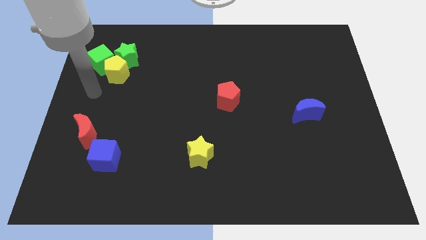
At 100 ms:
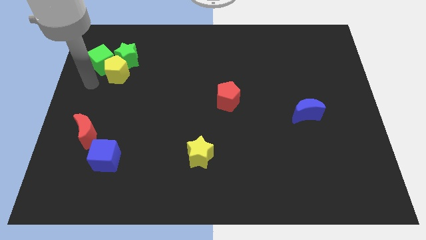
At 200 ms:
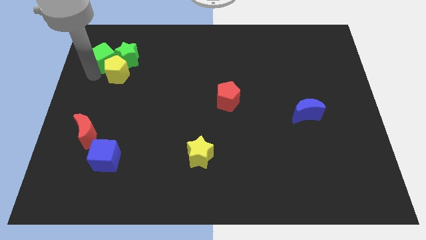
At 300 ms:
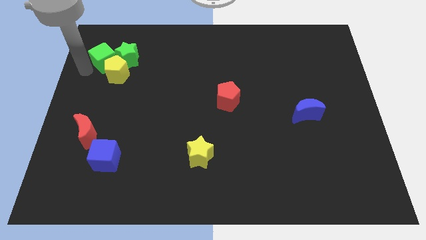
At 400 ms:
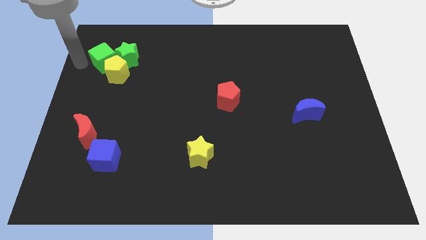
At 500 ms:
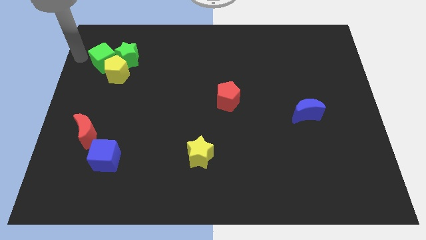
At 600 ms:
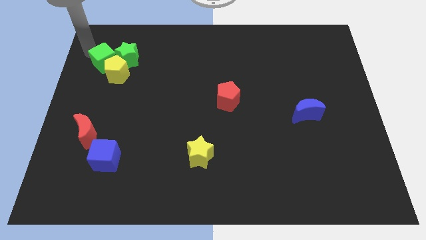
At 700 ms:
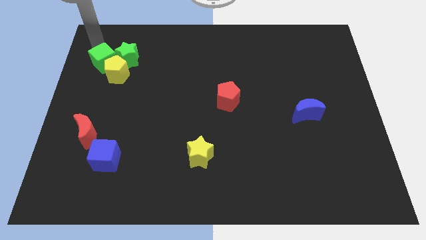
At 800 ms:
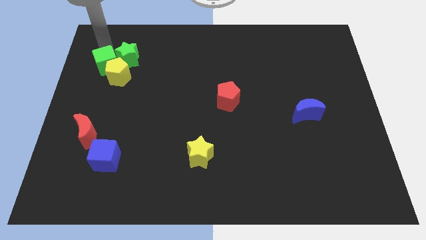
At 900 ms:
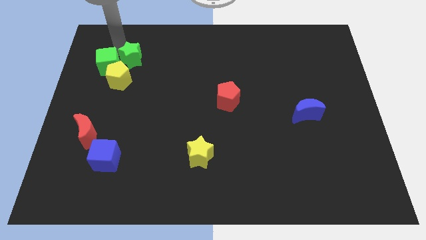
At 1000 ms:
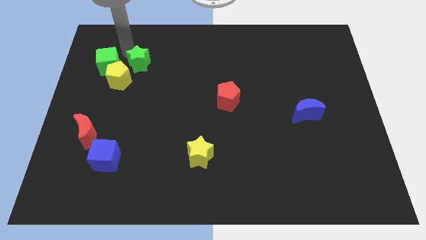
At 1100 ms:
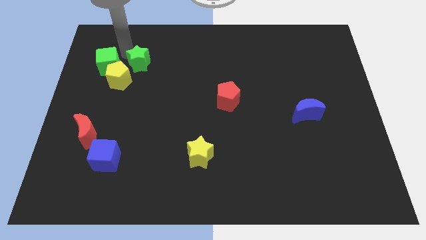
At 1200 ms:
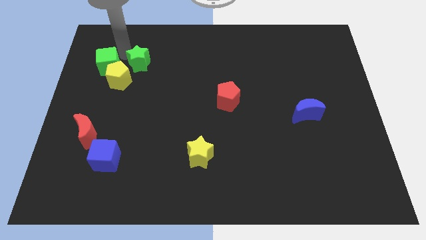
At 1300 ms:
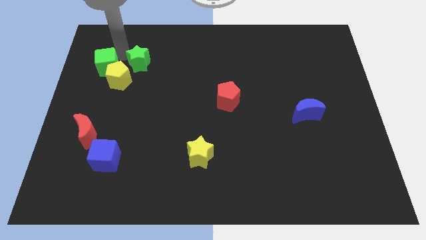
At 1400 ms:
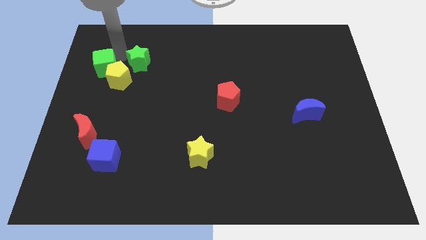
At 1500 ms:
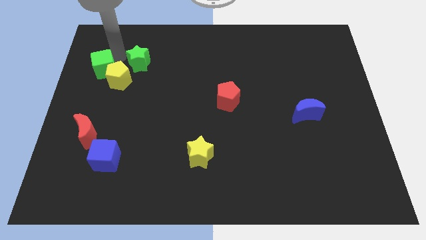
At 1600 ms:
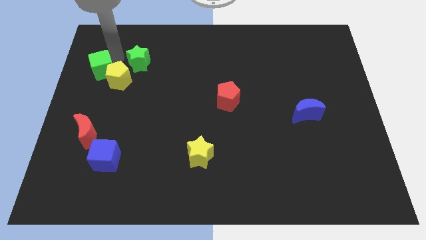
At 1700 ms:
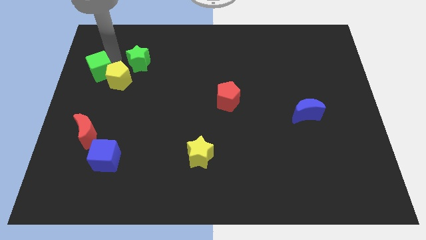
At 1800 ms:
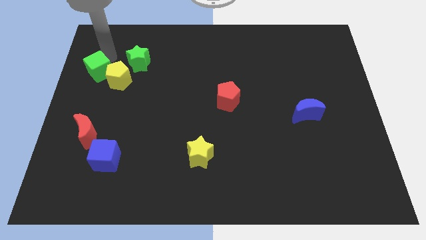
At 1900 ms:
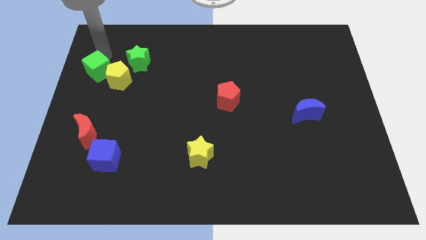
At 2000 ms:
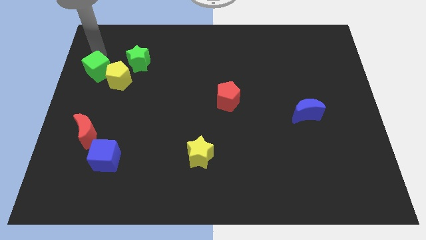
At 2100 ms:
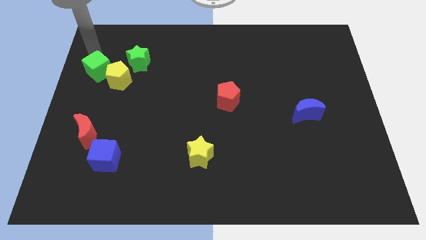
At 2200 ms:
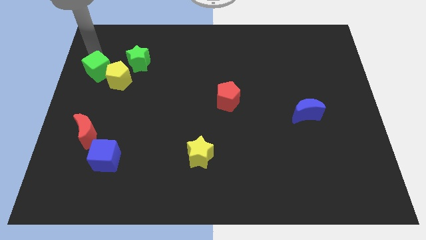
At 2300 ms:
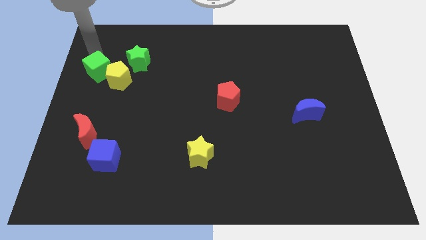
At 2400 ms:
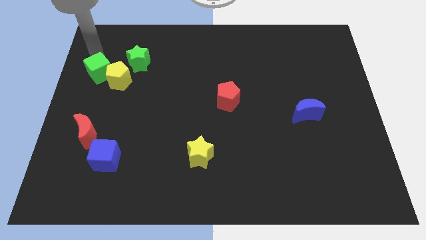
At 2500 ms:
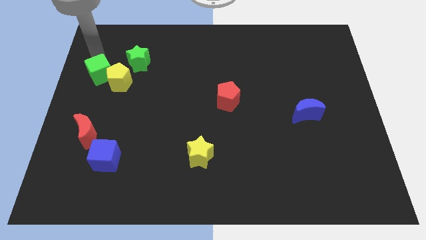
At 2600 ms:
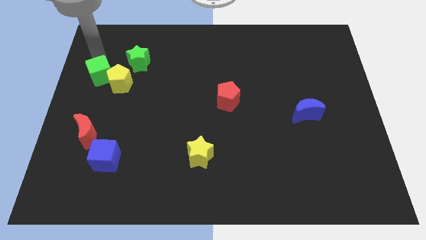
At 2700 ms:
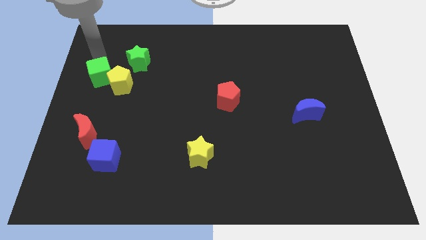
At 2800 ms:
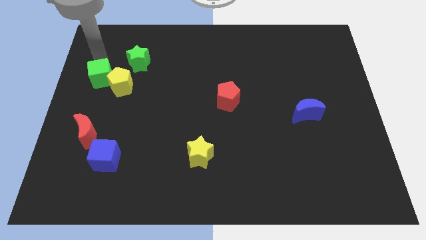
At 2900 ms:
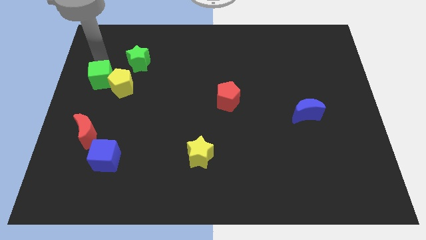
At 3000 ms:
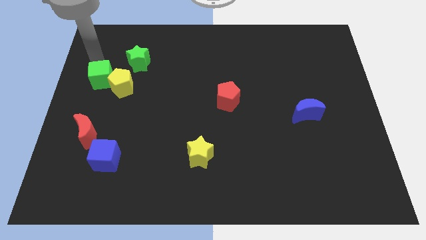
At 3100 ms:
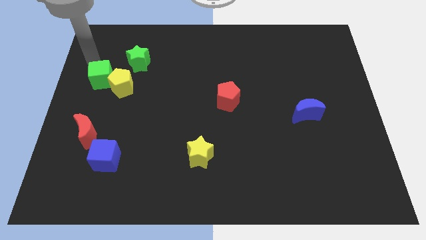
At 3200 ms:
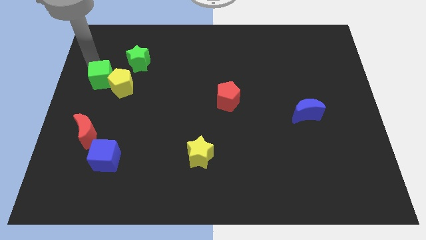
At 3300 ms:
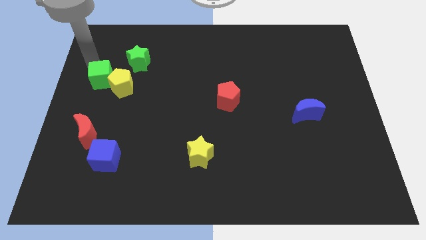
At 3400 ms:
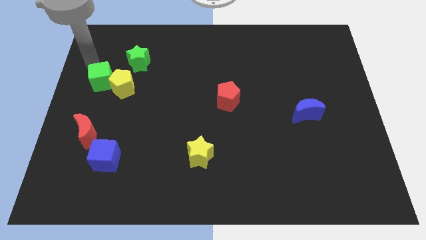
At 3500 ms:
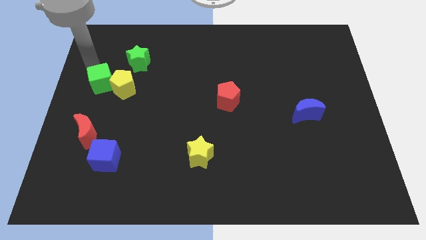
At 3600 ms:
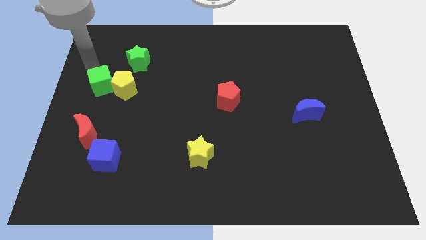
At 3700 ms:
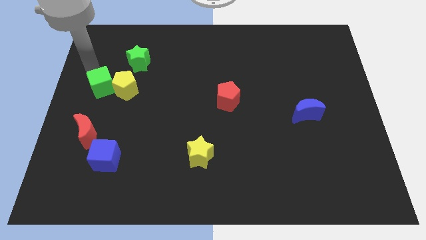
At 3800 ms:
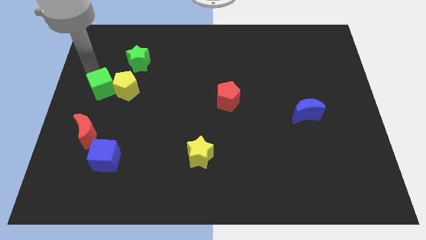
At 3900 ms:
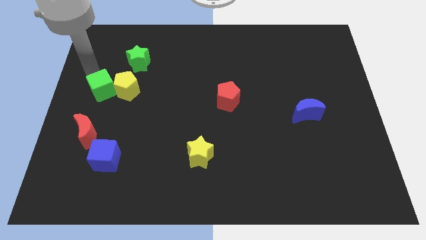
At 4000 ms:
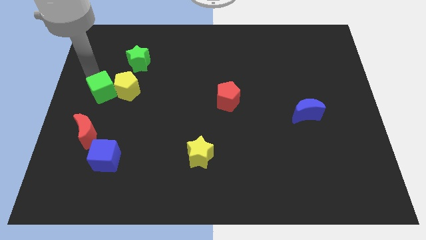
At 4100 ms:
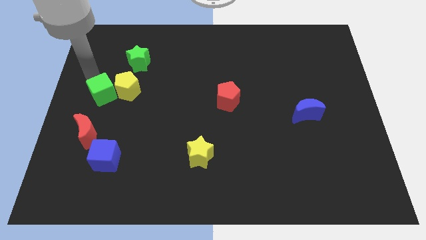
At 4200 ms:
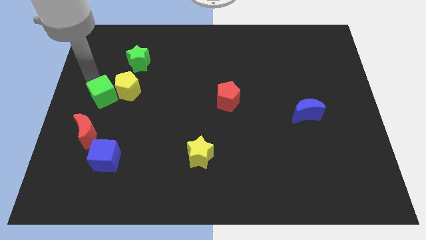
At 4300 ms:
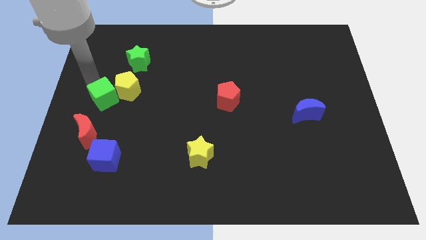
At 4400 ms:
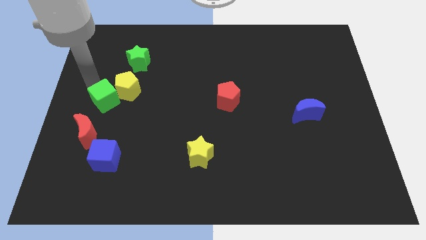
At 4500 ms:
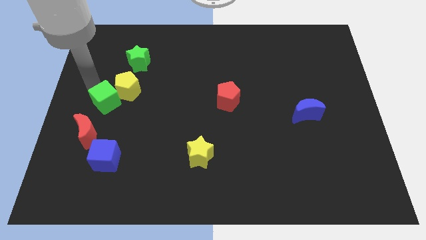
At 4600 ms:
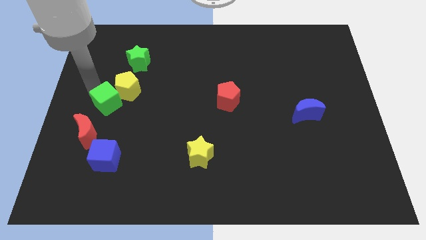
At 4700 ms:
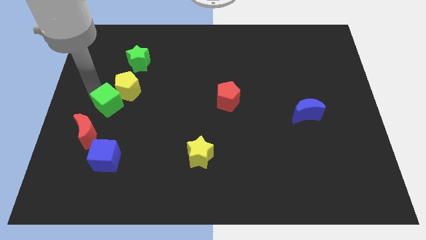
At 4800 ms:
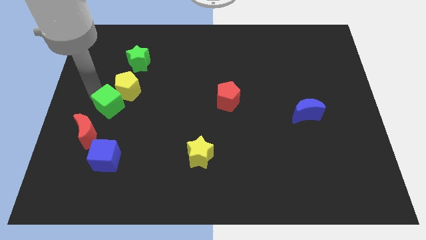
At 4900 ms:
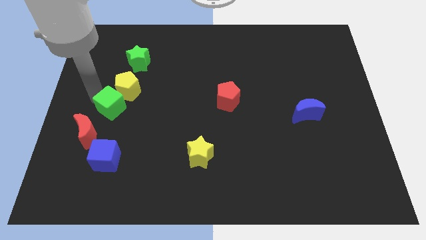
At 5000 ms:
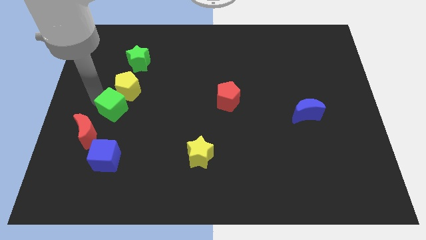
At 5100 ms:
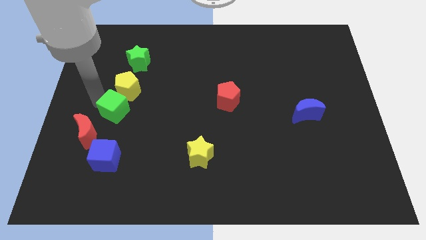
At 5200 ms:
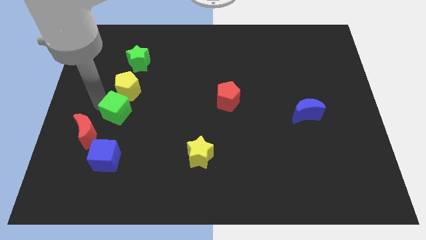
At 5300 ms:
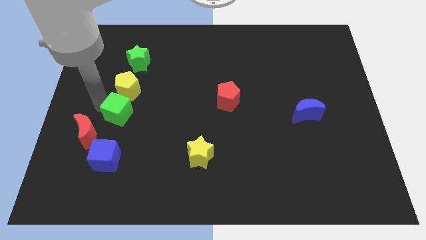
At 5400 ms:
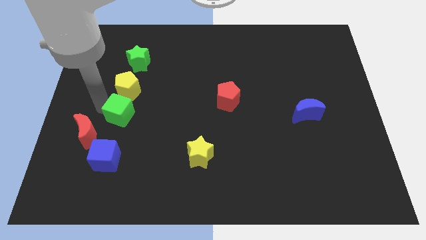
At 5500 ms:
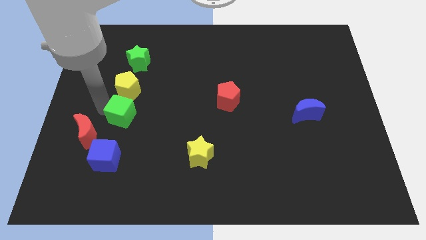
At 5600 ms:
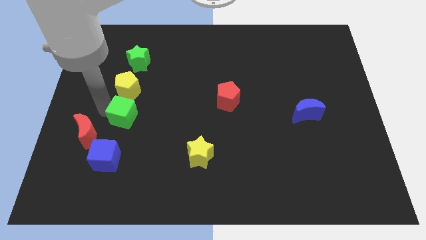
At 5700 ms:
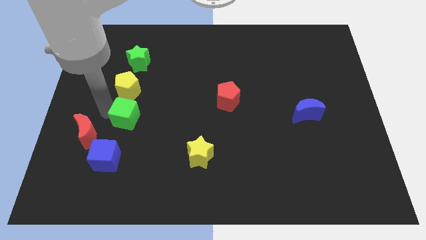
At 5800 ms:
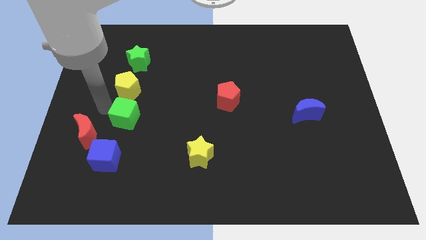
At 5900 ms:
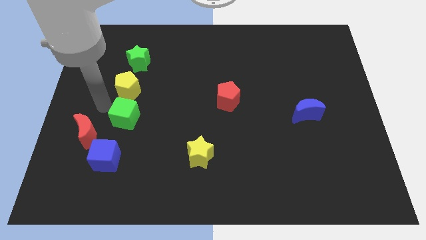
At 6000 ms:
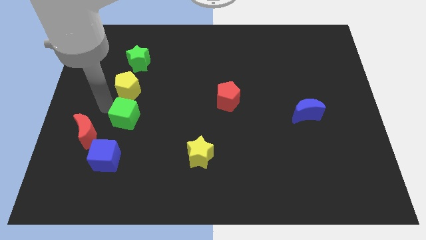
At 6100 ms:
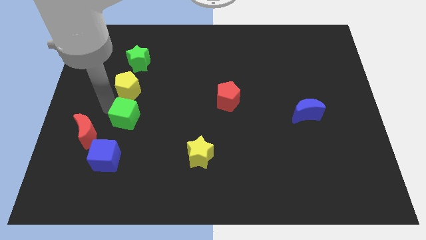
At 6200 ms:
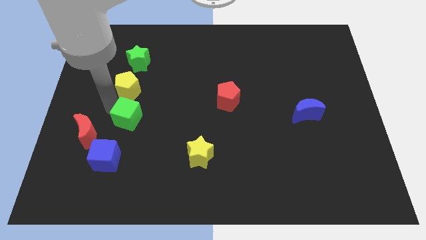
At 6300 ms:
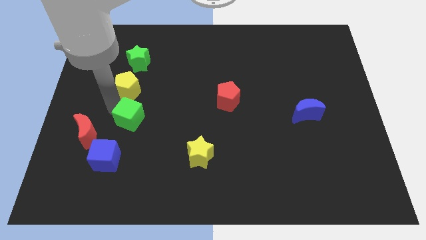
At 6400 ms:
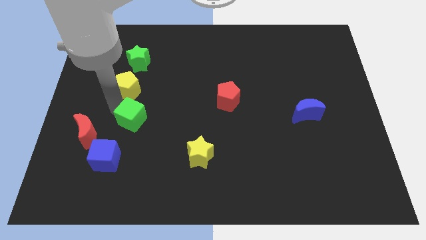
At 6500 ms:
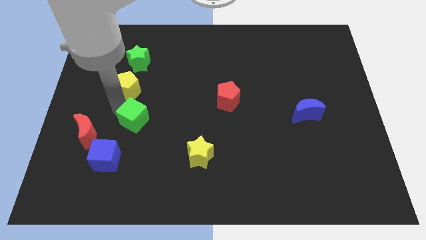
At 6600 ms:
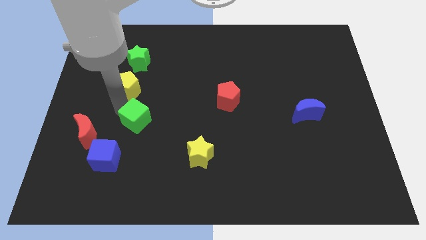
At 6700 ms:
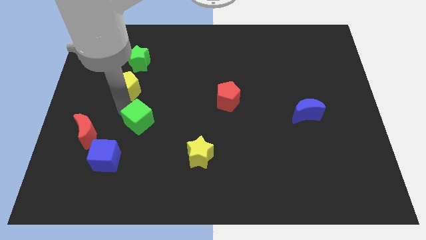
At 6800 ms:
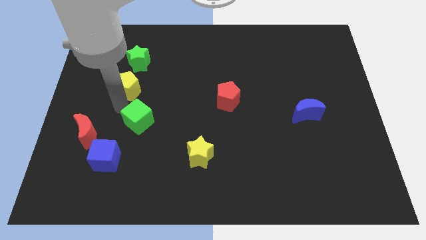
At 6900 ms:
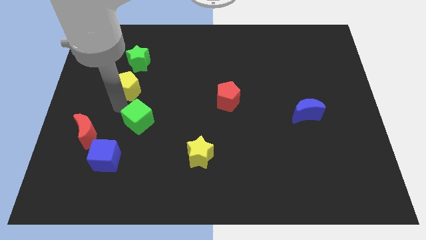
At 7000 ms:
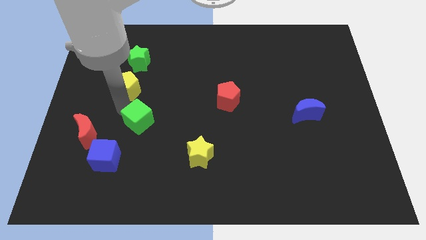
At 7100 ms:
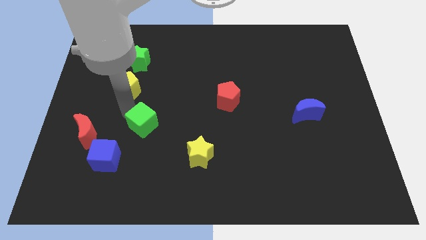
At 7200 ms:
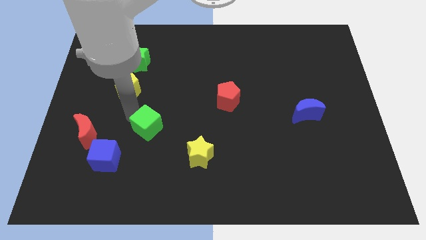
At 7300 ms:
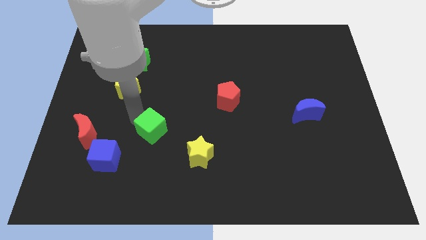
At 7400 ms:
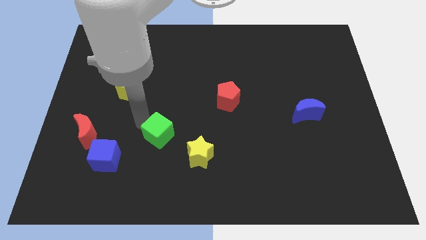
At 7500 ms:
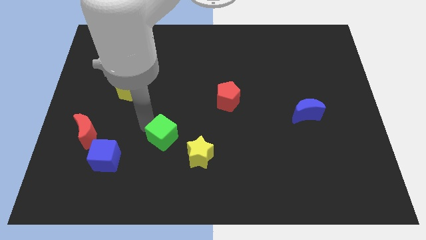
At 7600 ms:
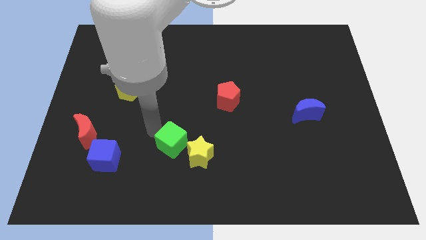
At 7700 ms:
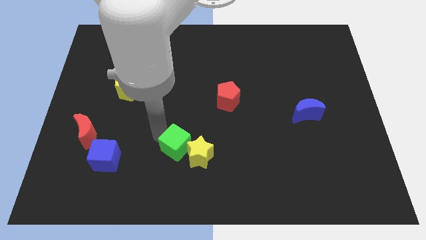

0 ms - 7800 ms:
put the green cube towards the yellow star

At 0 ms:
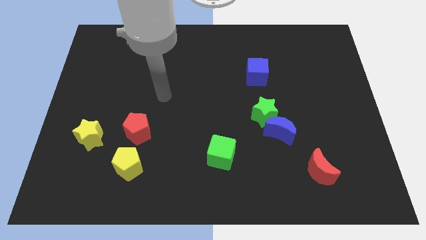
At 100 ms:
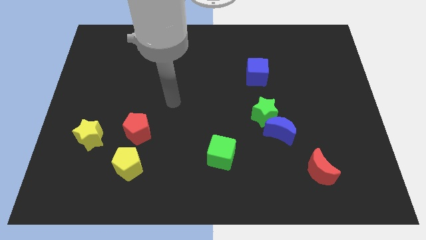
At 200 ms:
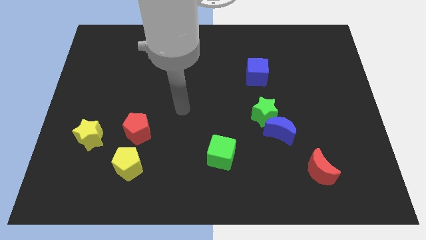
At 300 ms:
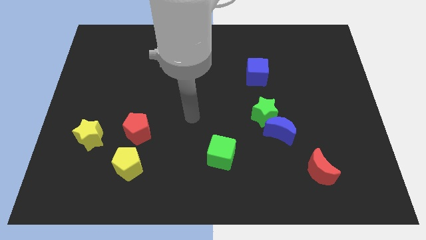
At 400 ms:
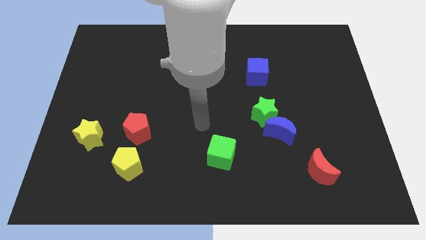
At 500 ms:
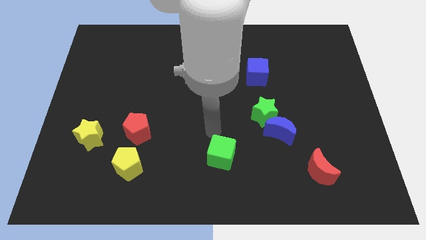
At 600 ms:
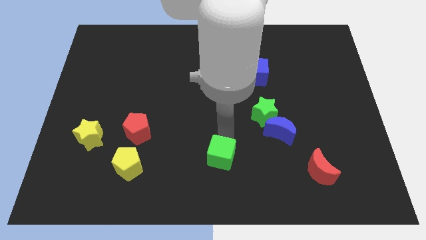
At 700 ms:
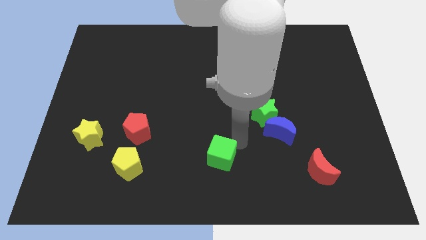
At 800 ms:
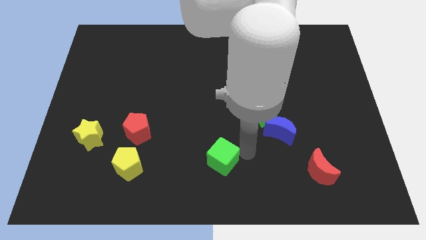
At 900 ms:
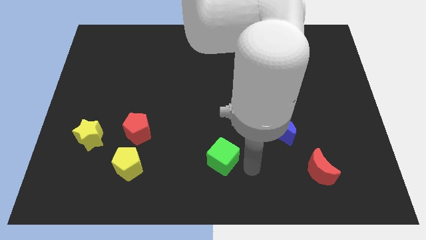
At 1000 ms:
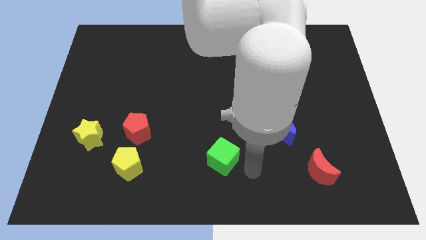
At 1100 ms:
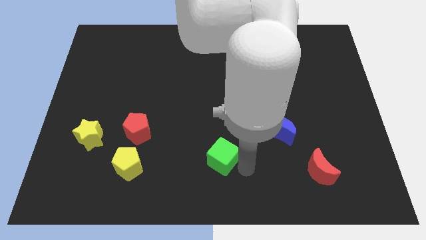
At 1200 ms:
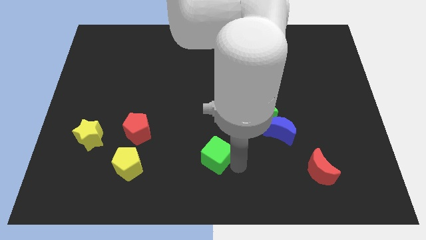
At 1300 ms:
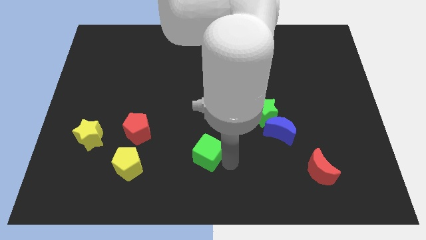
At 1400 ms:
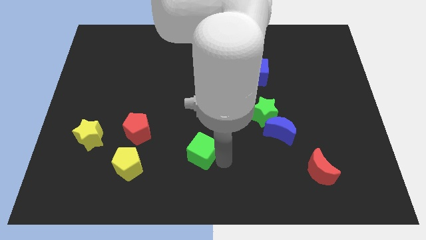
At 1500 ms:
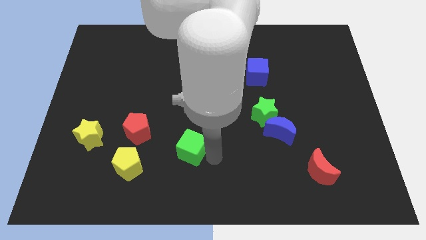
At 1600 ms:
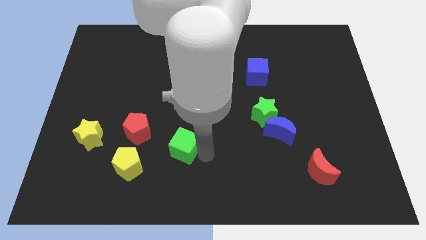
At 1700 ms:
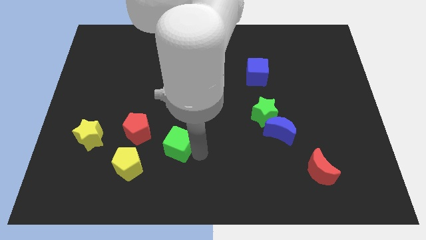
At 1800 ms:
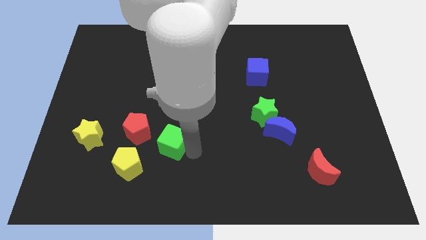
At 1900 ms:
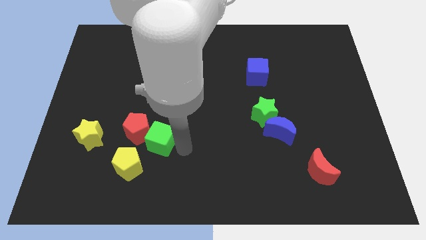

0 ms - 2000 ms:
push the green cube towards the red pentagon
